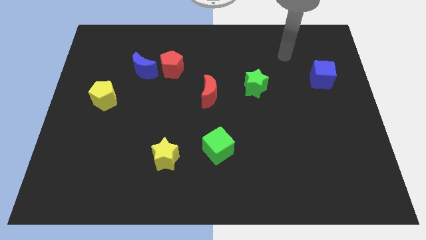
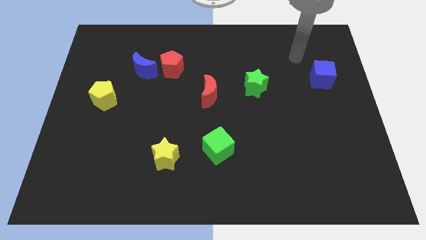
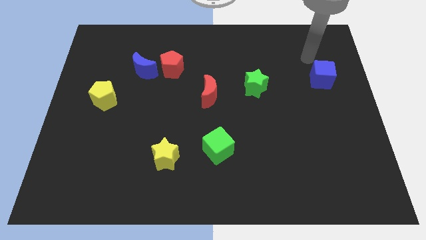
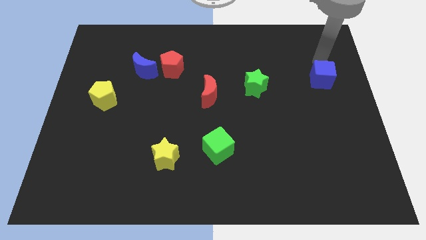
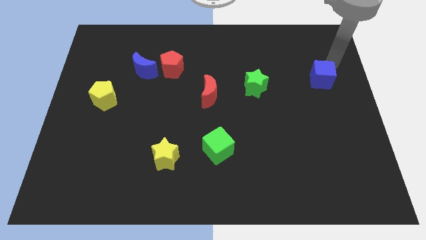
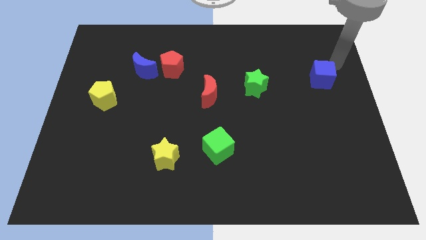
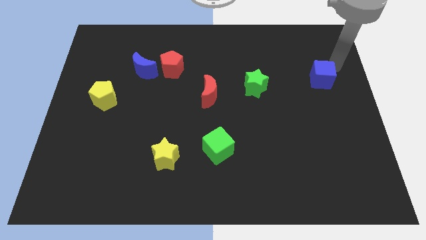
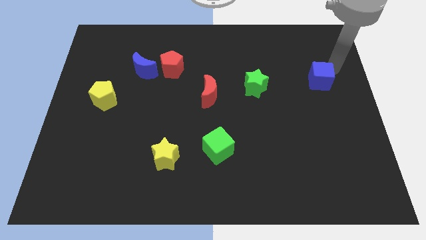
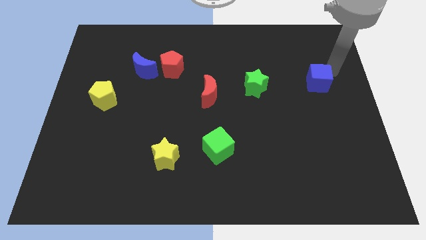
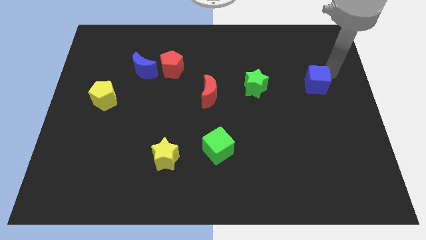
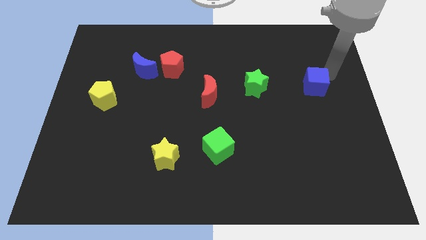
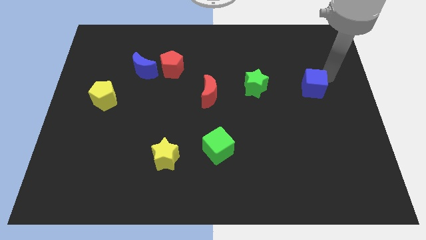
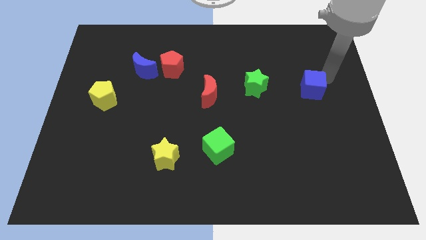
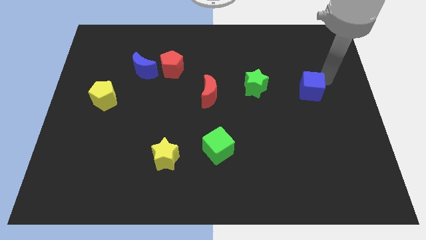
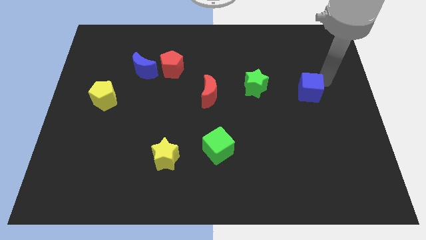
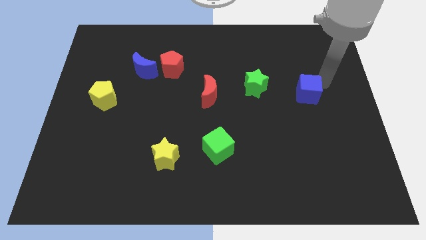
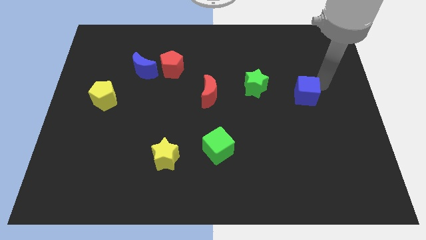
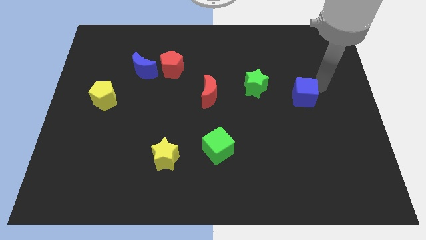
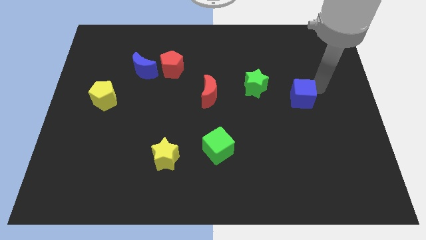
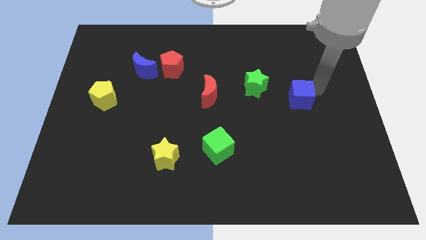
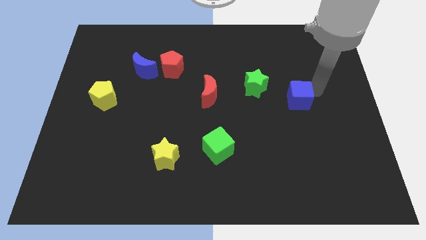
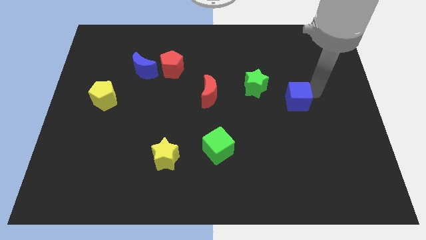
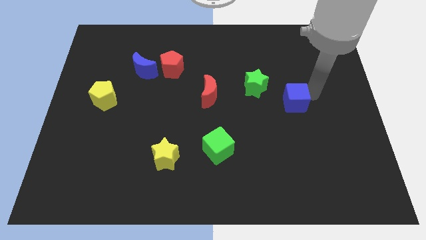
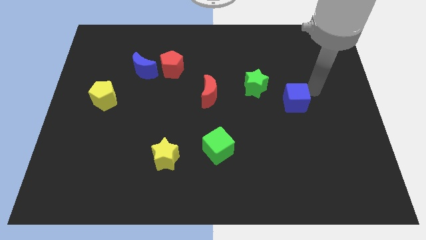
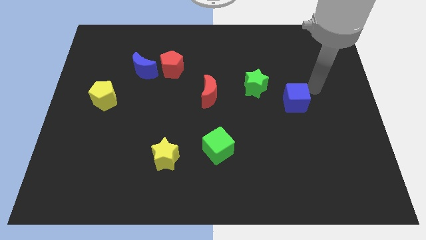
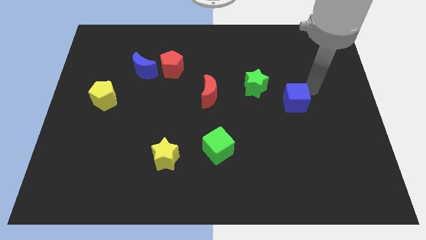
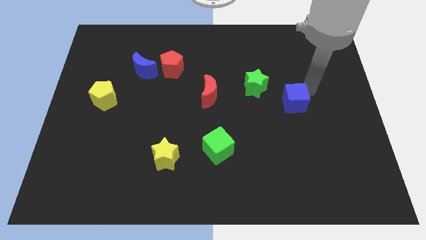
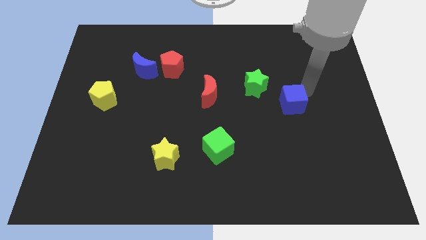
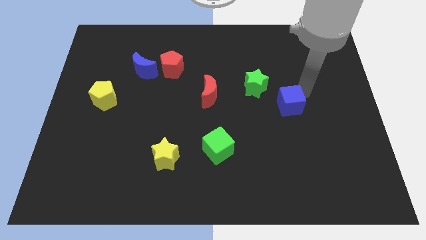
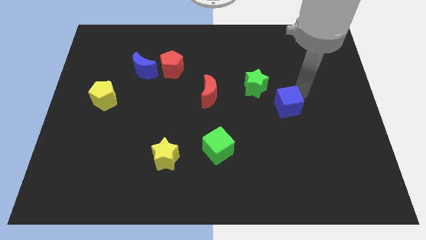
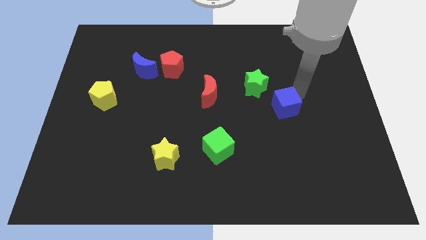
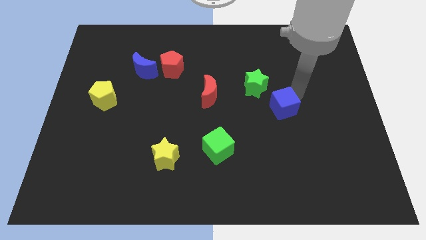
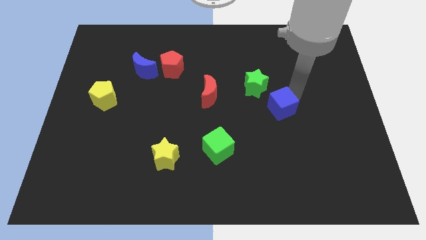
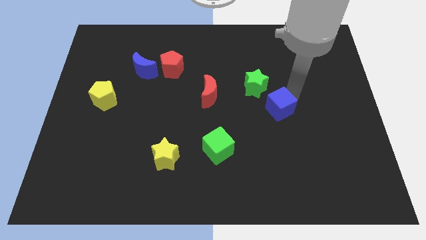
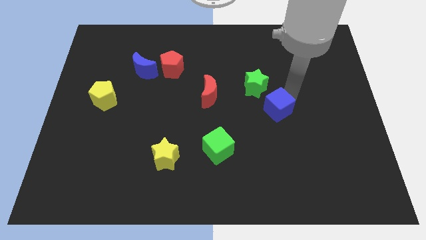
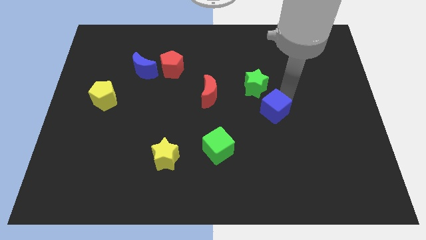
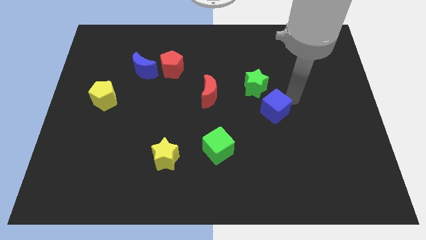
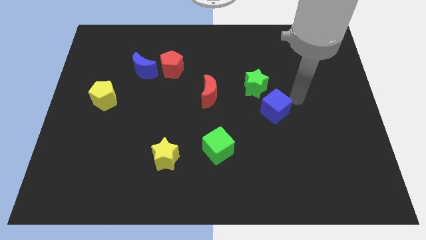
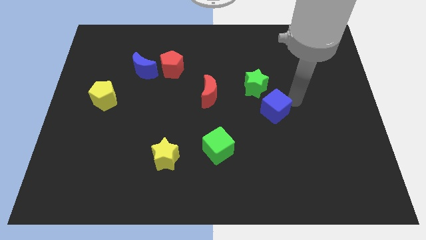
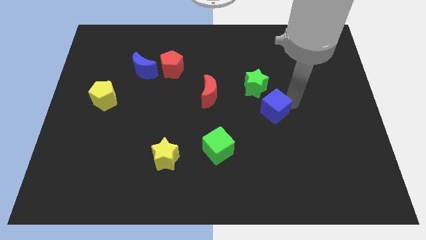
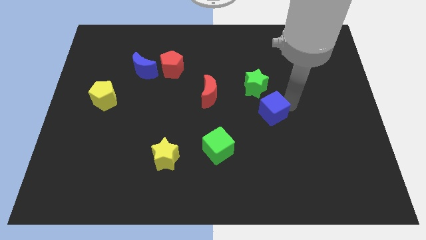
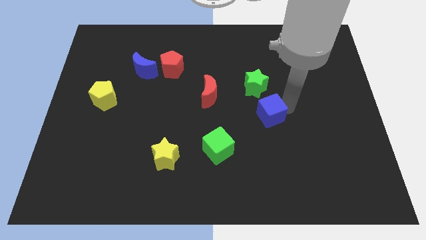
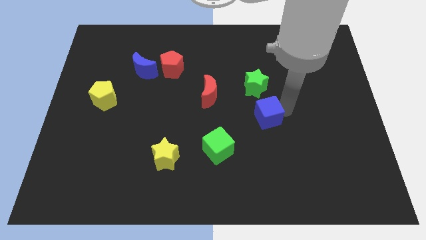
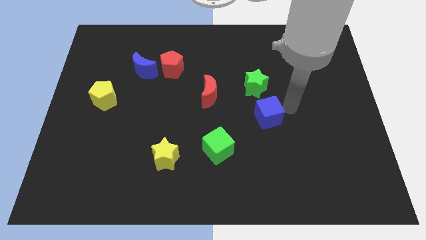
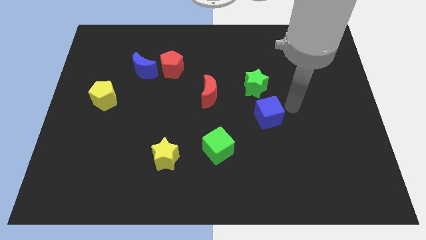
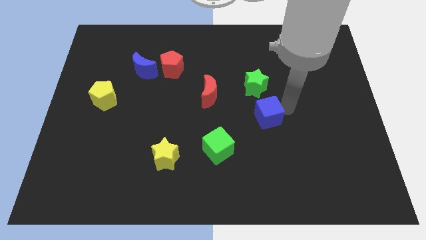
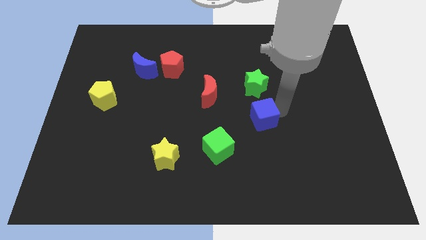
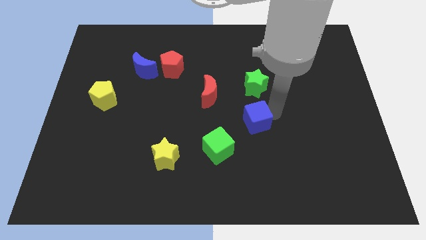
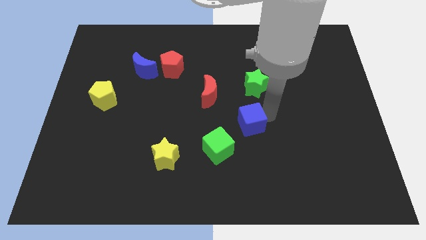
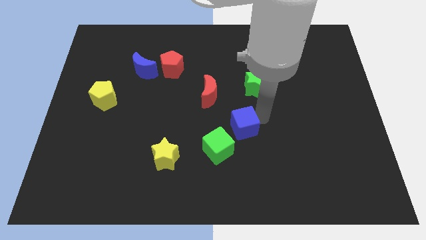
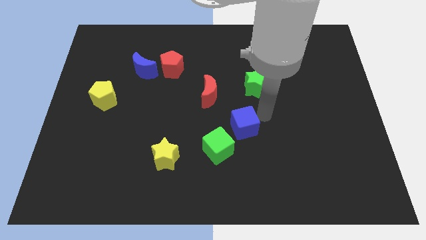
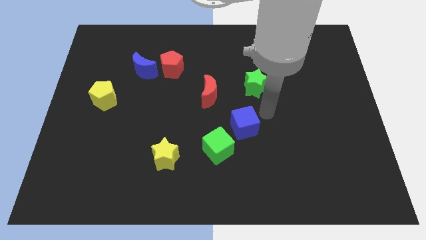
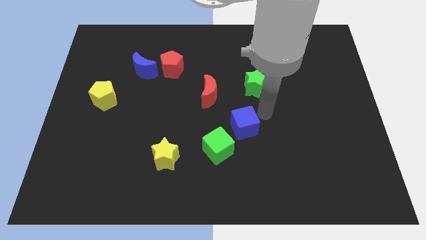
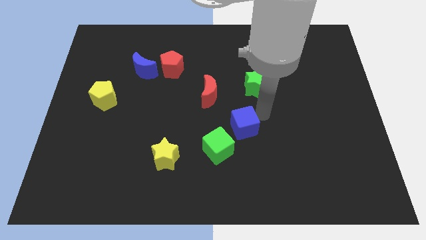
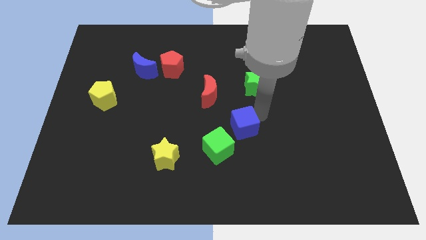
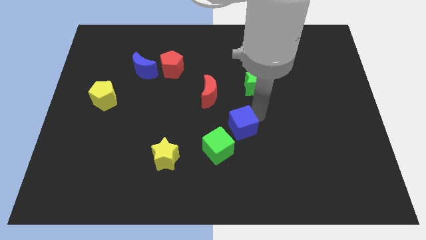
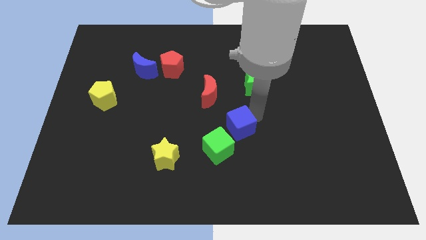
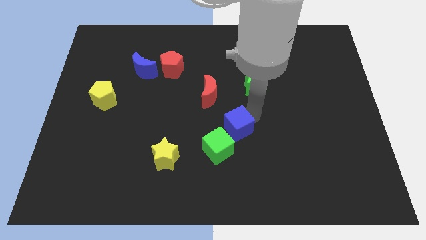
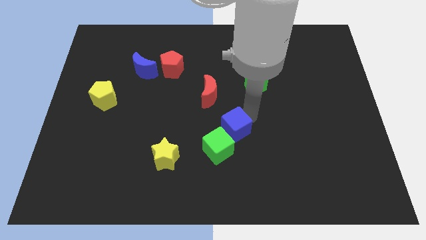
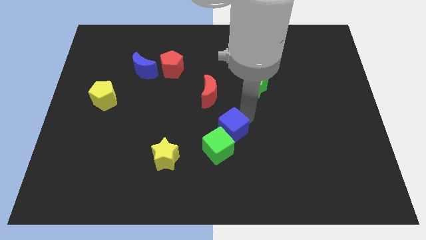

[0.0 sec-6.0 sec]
push the blue cube to the green cube

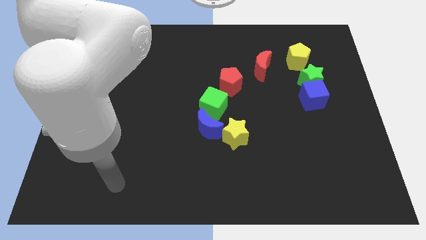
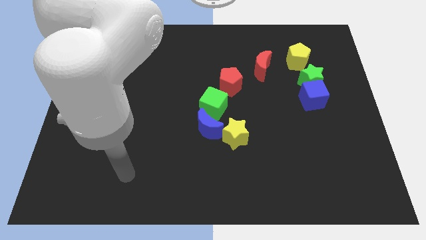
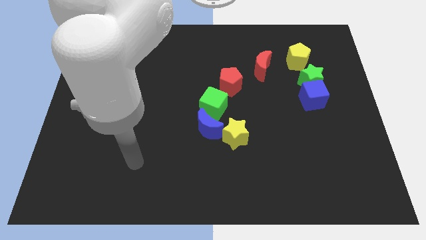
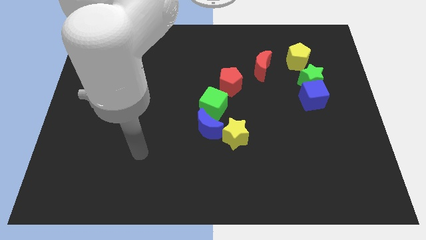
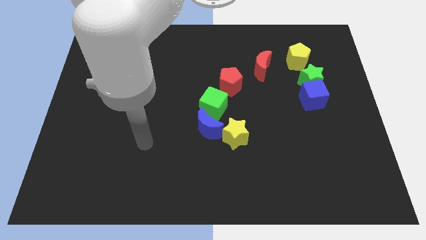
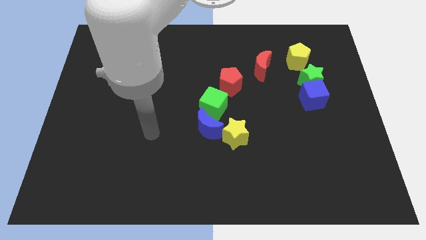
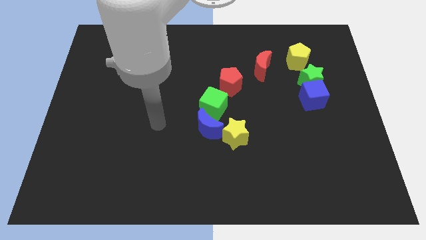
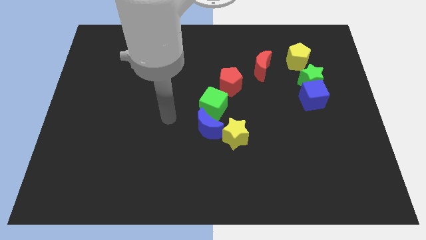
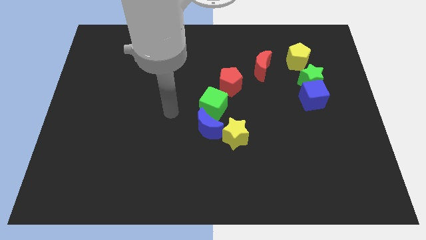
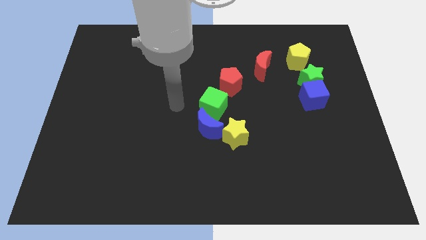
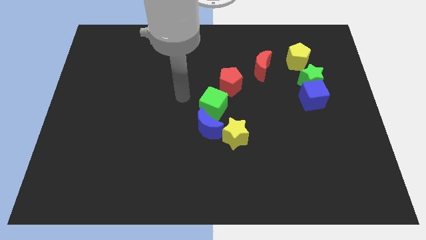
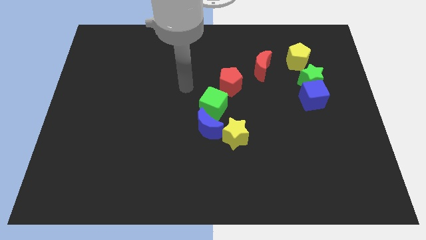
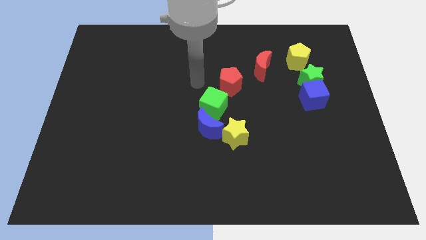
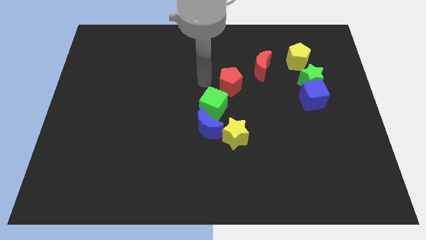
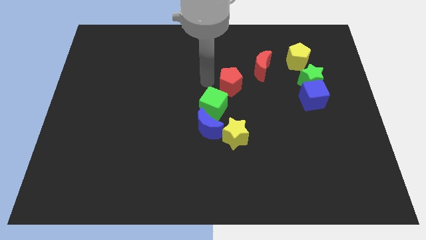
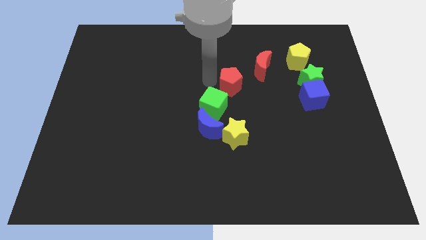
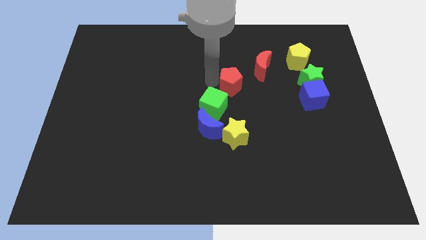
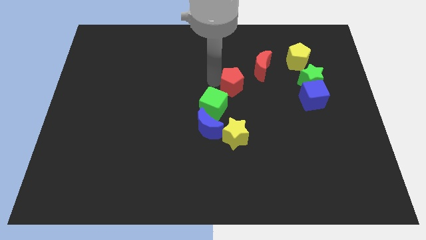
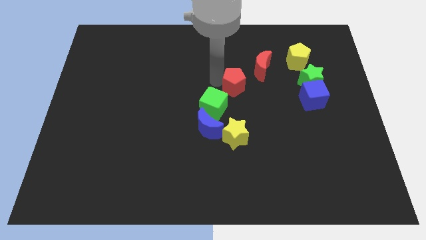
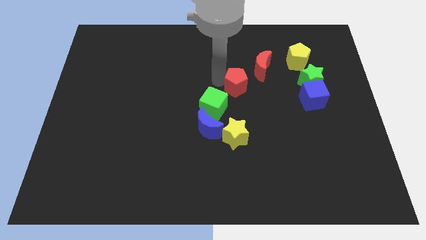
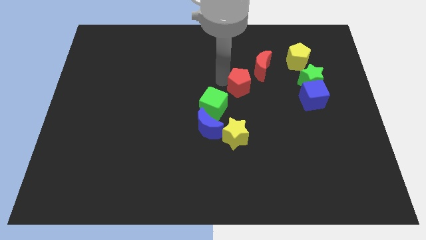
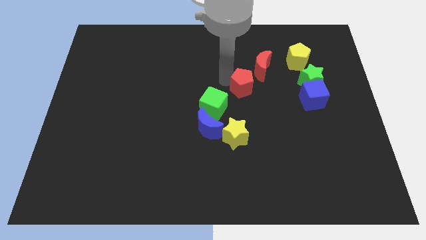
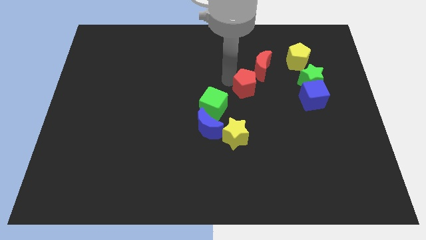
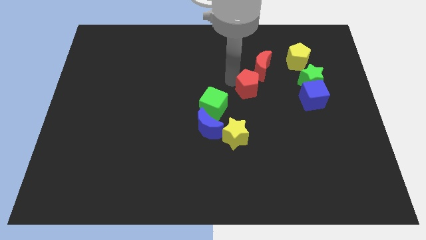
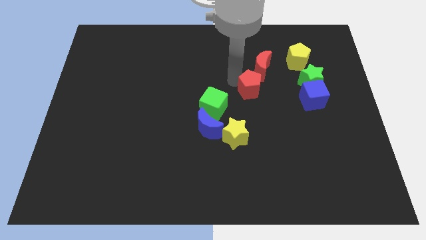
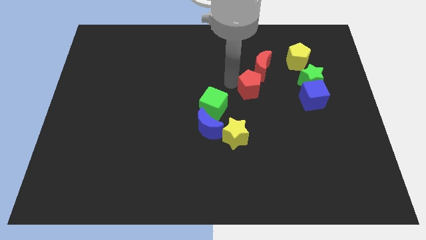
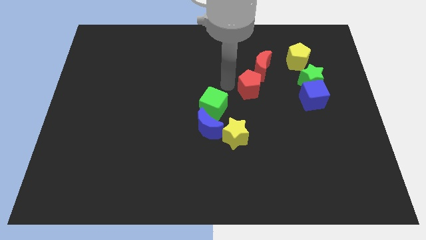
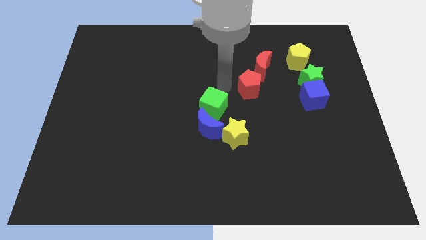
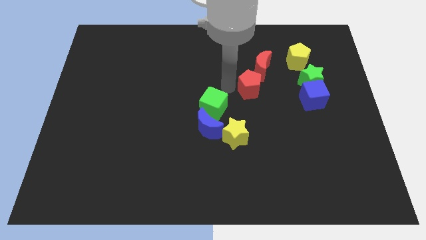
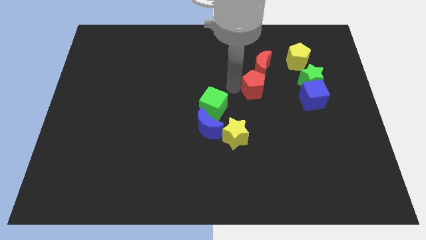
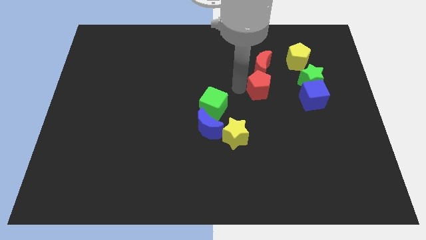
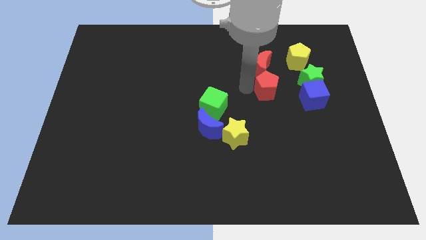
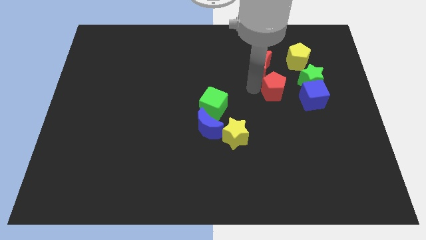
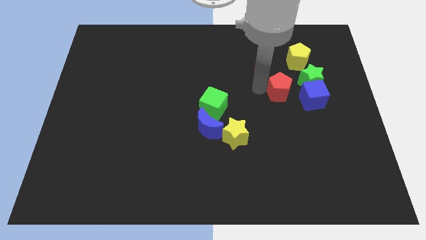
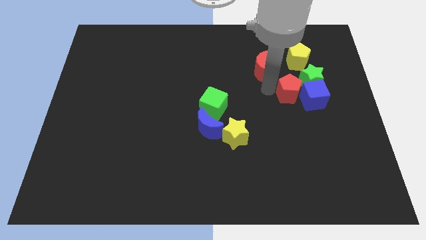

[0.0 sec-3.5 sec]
move the red pentagon close to the blue cube
